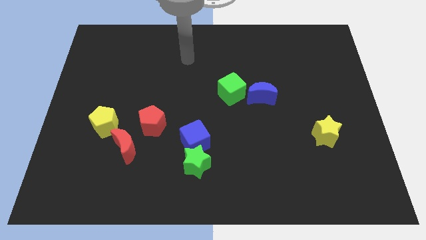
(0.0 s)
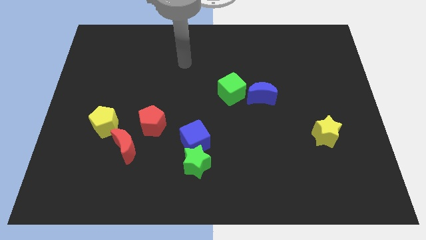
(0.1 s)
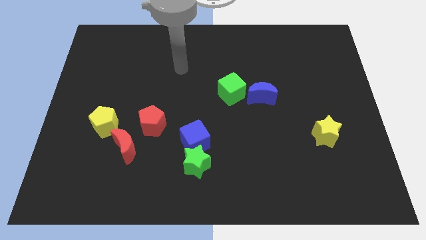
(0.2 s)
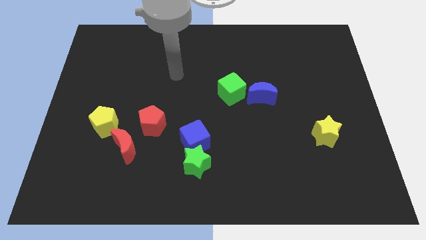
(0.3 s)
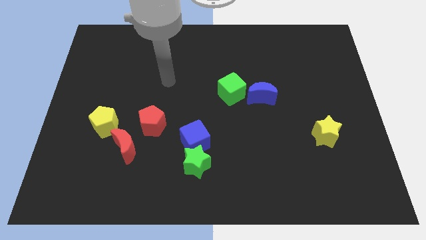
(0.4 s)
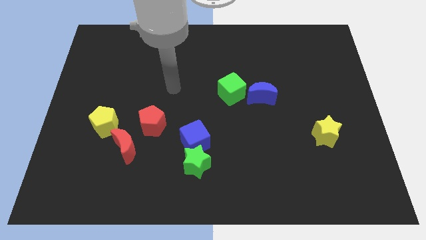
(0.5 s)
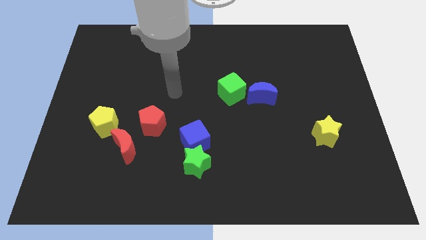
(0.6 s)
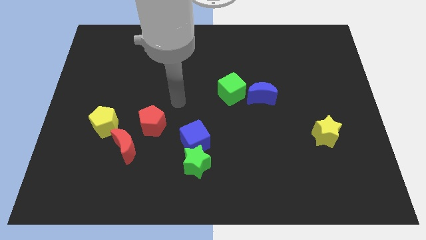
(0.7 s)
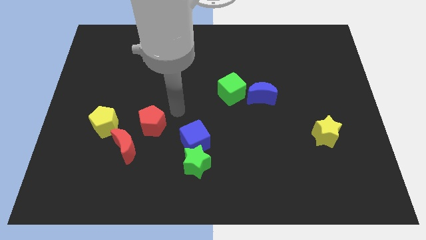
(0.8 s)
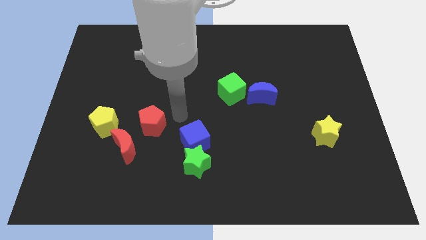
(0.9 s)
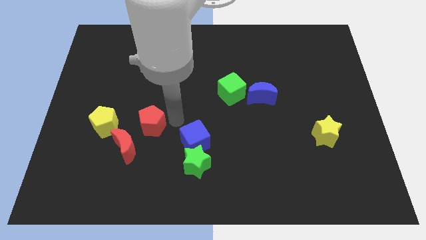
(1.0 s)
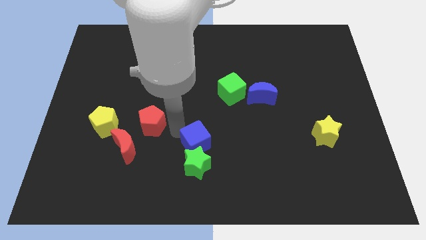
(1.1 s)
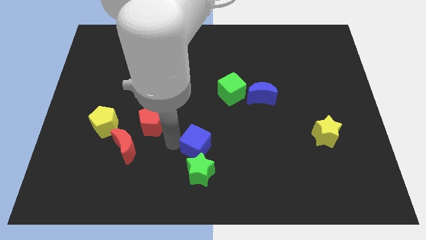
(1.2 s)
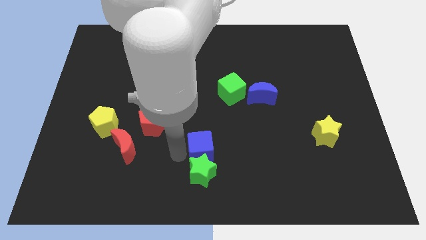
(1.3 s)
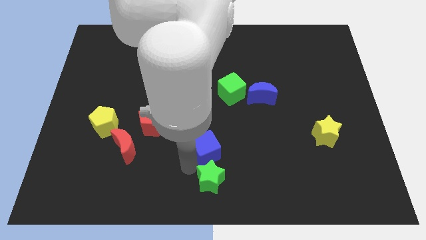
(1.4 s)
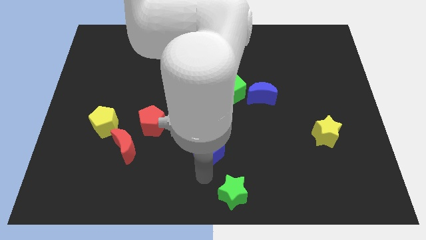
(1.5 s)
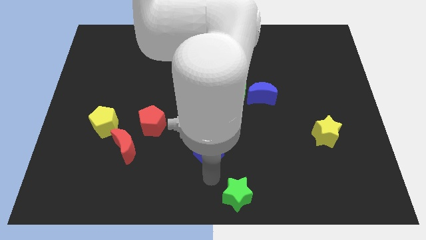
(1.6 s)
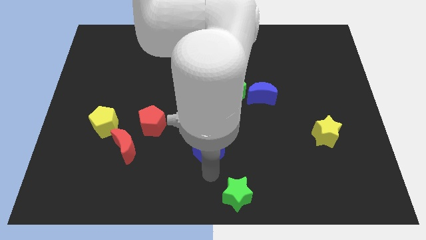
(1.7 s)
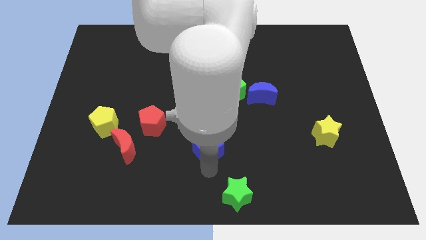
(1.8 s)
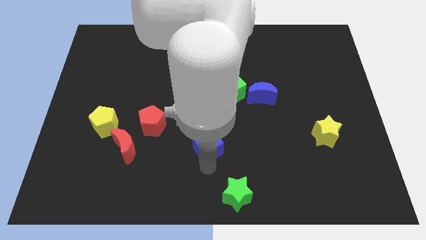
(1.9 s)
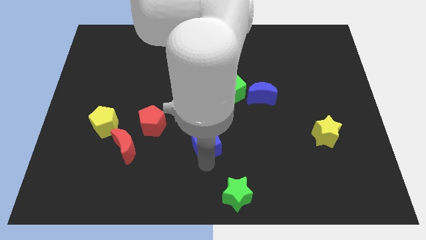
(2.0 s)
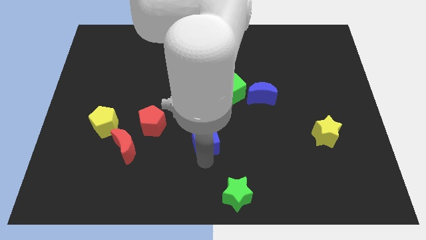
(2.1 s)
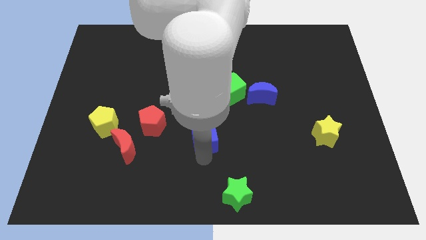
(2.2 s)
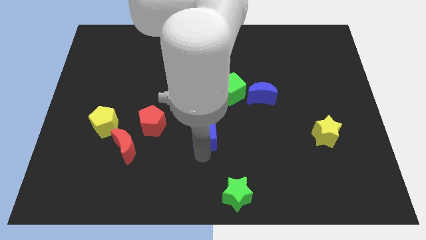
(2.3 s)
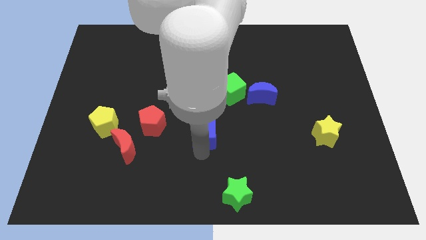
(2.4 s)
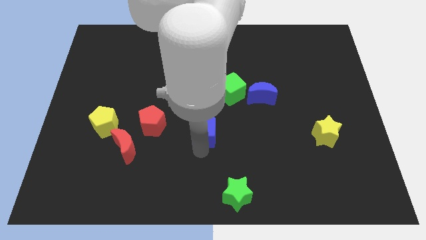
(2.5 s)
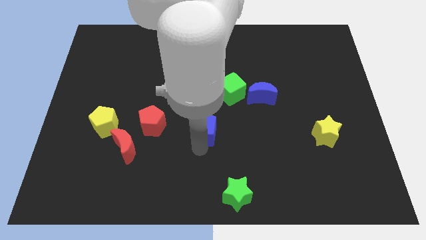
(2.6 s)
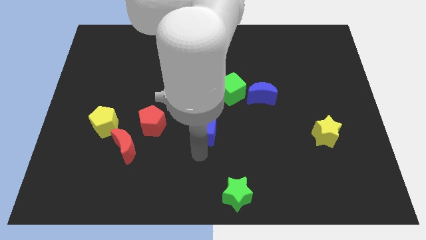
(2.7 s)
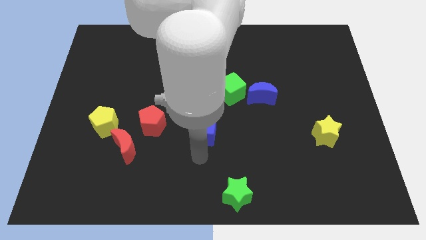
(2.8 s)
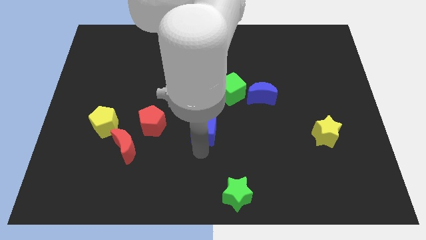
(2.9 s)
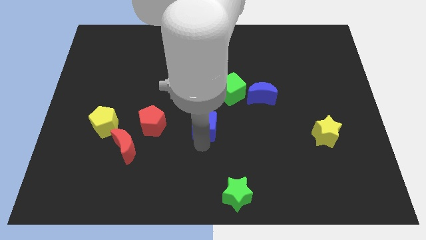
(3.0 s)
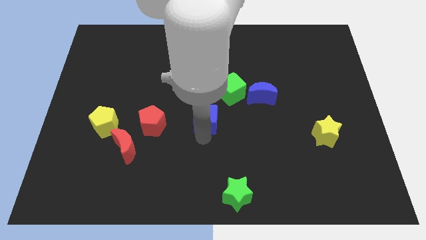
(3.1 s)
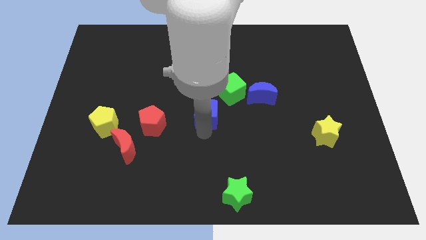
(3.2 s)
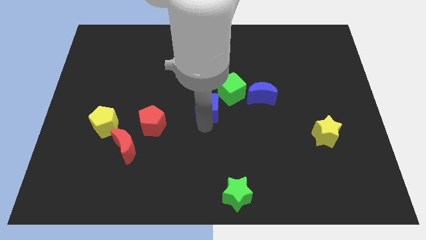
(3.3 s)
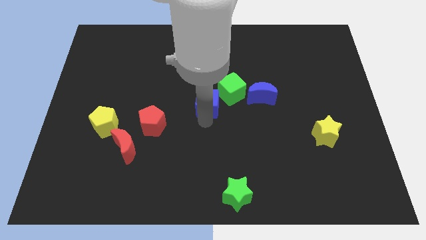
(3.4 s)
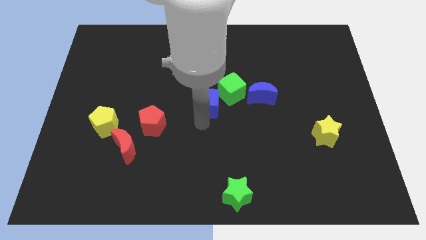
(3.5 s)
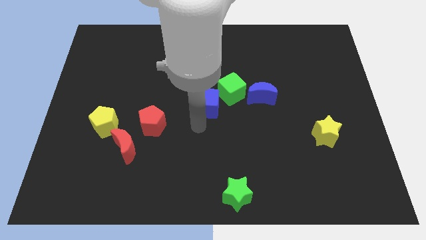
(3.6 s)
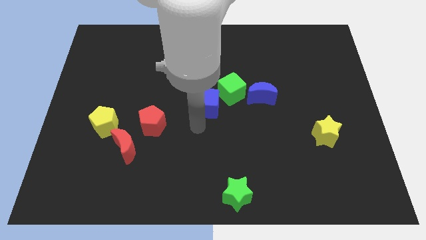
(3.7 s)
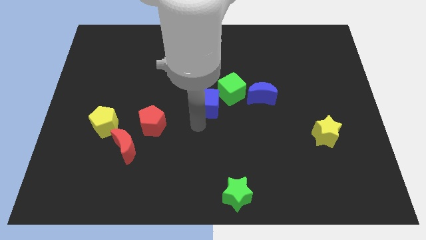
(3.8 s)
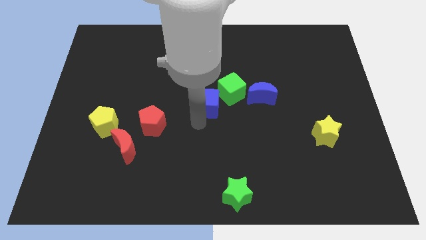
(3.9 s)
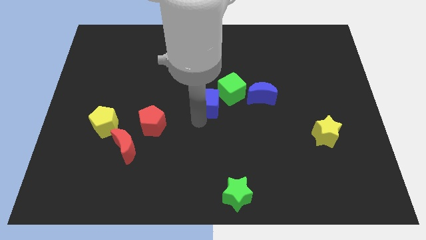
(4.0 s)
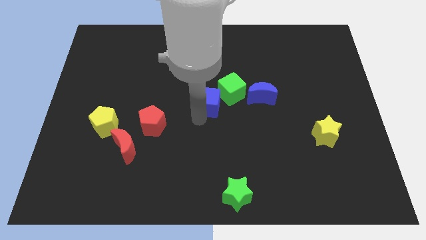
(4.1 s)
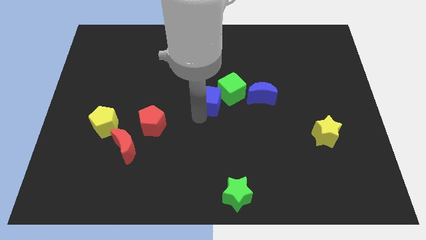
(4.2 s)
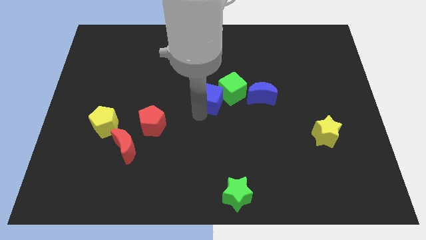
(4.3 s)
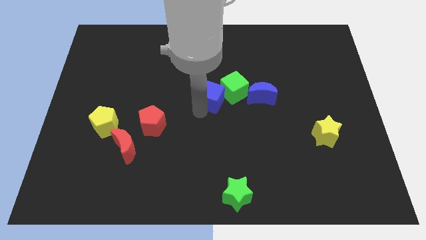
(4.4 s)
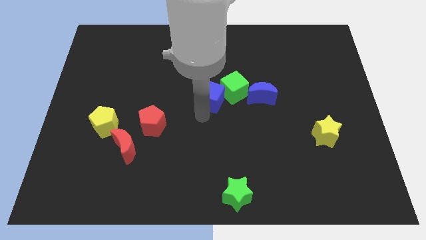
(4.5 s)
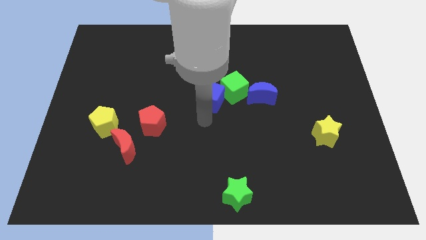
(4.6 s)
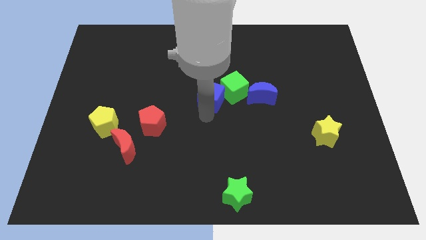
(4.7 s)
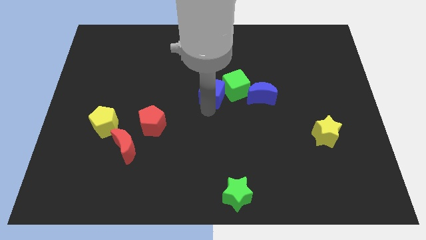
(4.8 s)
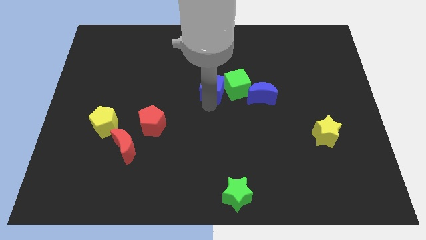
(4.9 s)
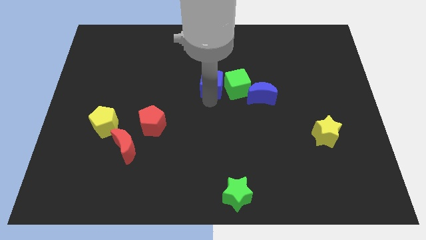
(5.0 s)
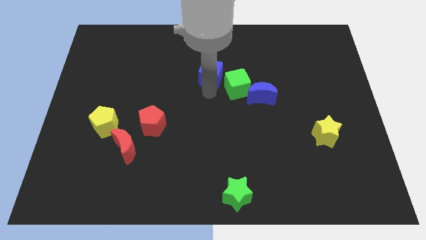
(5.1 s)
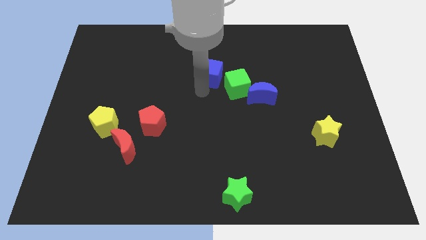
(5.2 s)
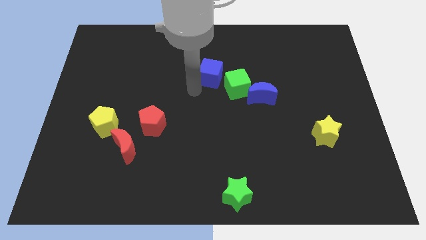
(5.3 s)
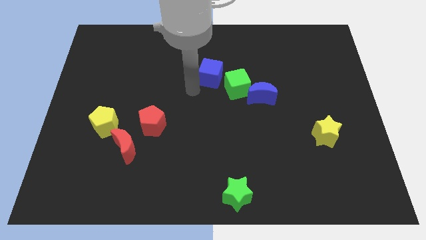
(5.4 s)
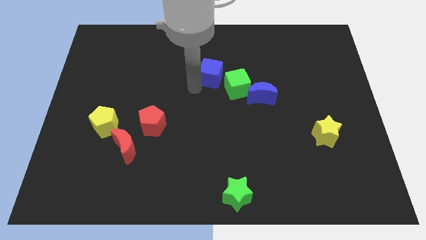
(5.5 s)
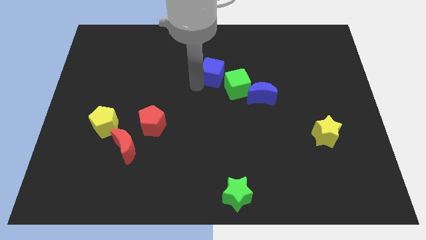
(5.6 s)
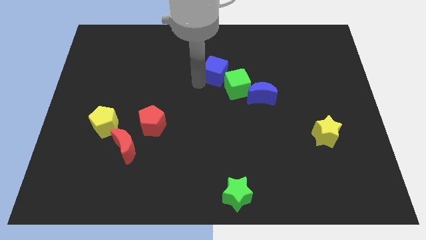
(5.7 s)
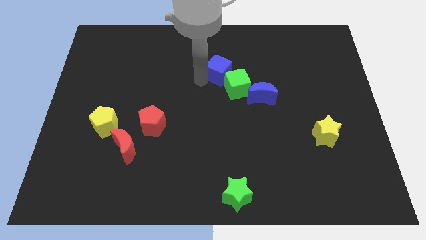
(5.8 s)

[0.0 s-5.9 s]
push the blue cube to the top side of the green cube

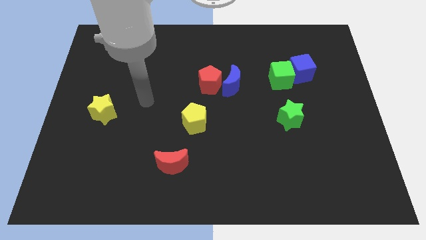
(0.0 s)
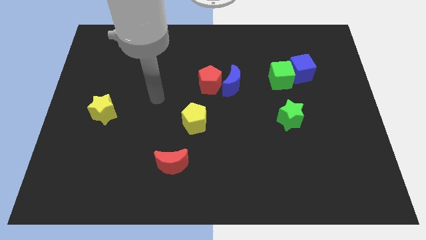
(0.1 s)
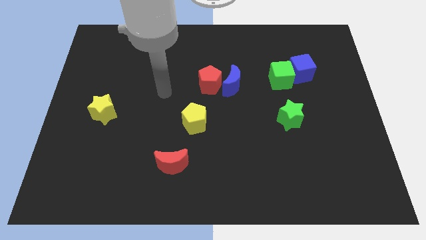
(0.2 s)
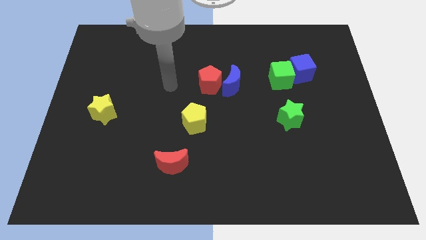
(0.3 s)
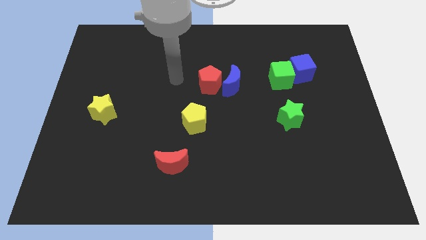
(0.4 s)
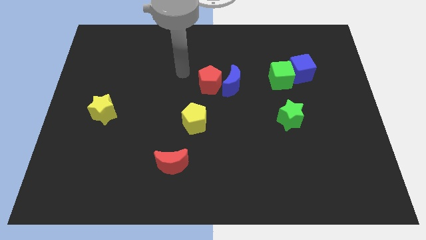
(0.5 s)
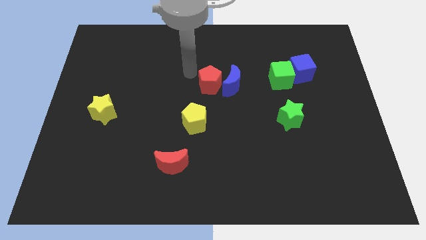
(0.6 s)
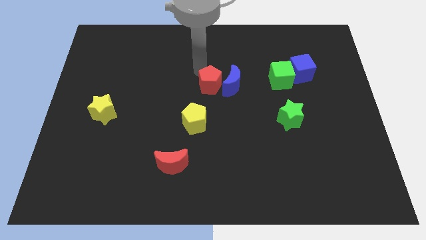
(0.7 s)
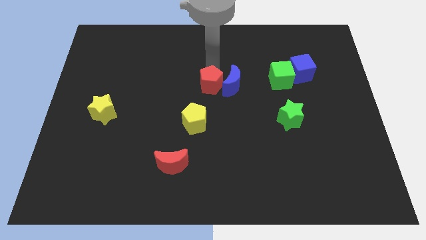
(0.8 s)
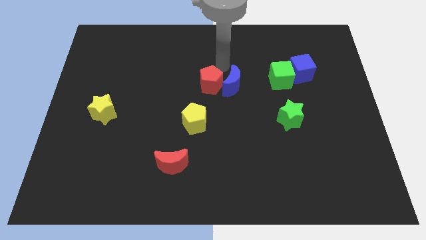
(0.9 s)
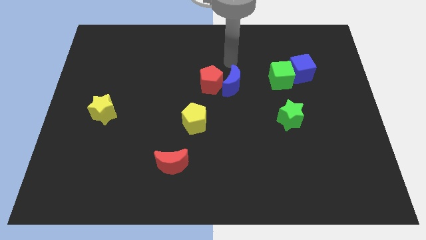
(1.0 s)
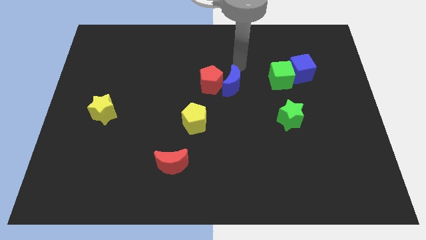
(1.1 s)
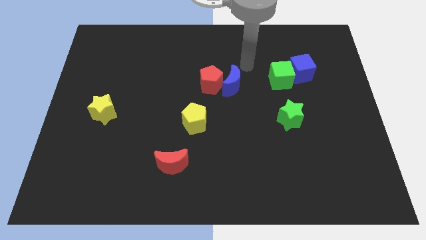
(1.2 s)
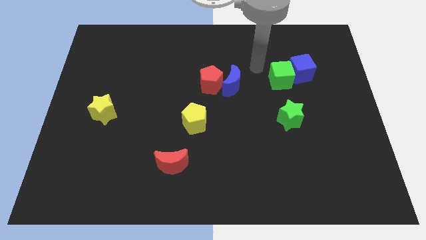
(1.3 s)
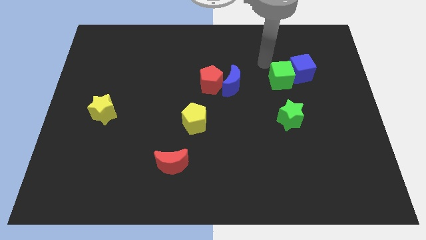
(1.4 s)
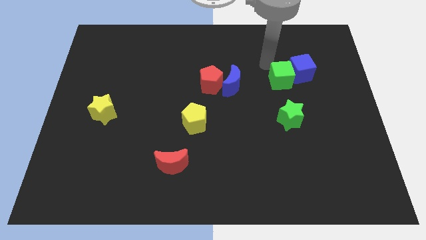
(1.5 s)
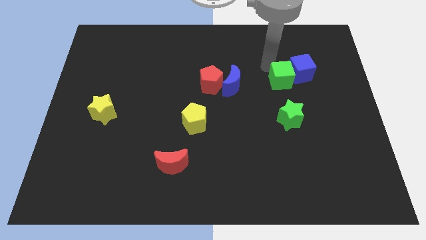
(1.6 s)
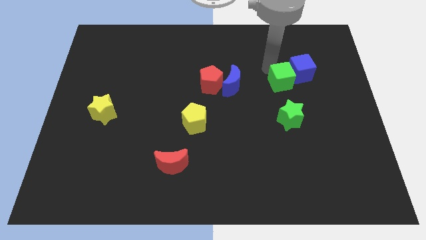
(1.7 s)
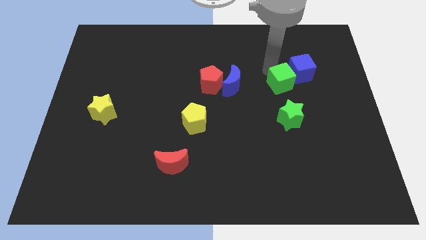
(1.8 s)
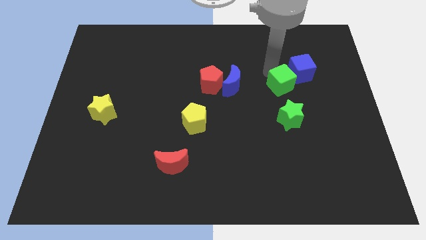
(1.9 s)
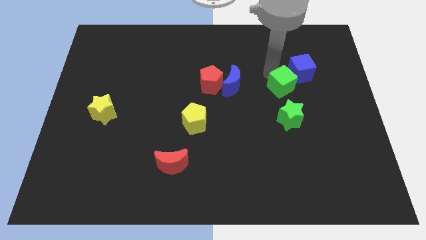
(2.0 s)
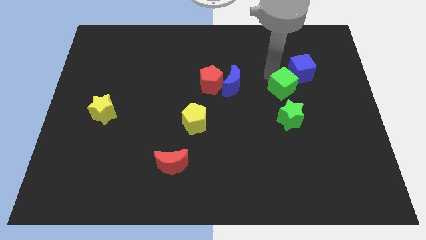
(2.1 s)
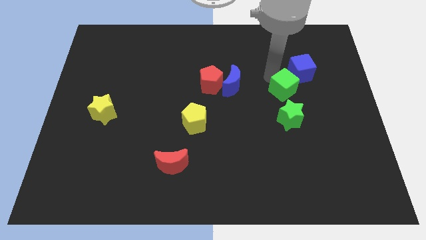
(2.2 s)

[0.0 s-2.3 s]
put the green cube below the blue cube
